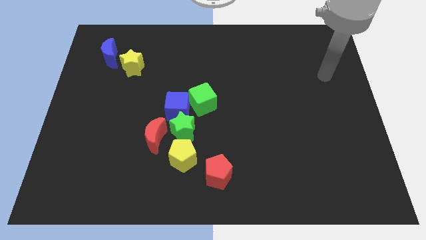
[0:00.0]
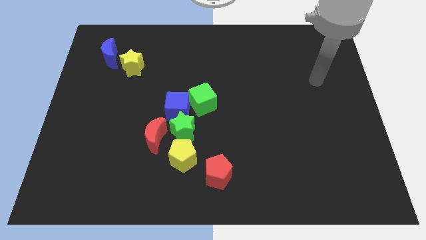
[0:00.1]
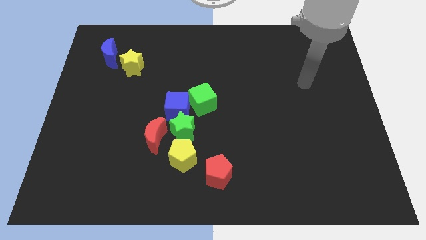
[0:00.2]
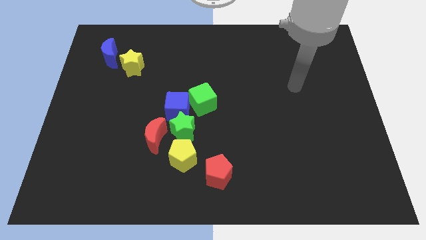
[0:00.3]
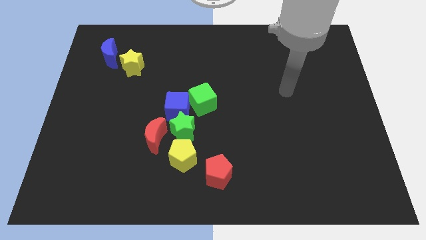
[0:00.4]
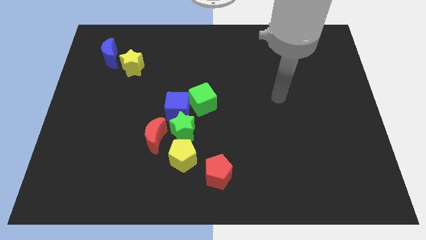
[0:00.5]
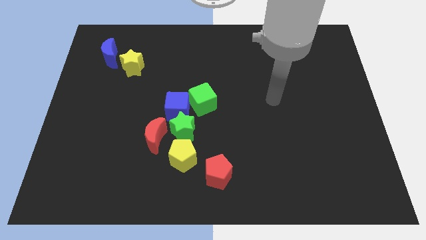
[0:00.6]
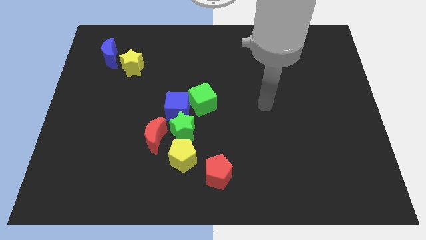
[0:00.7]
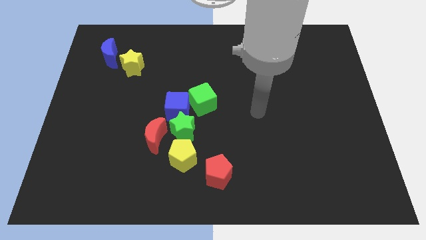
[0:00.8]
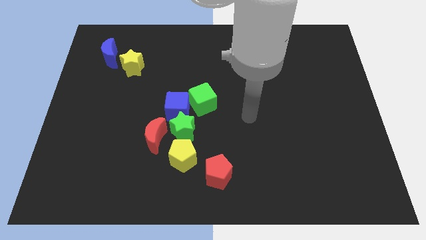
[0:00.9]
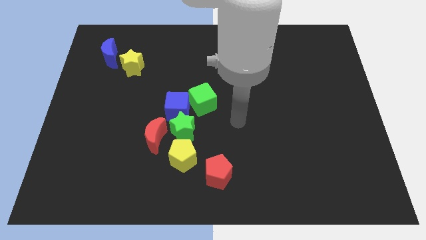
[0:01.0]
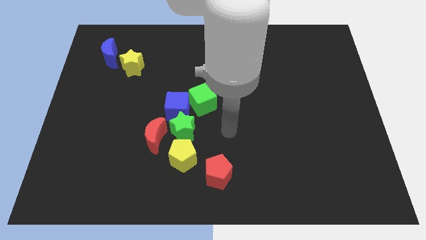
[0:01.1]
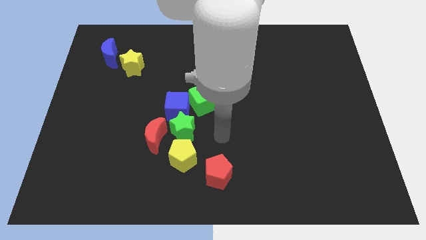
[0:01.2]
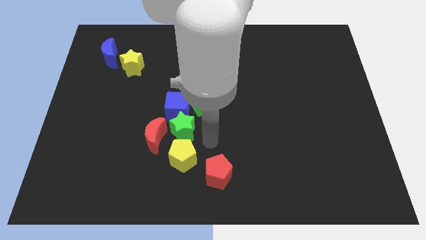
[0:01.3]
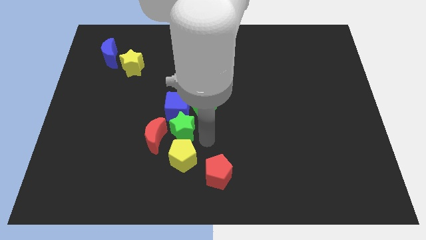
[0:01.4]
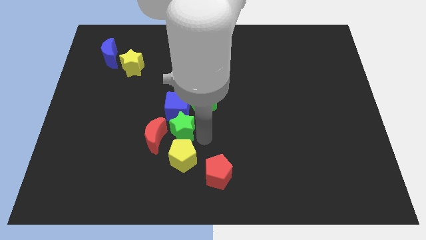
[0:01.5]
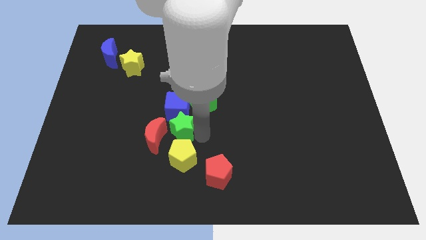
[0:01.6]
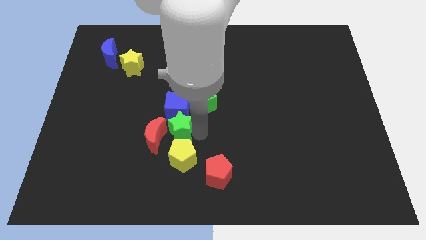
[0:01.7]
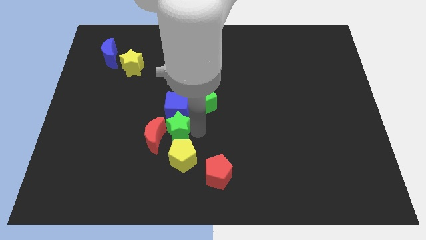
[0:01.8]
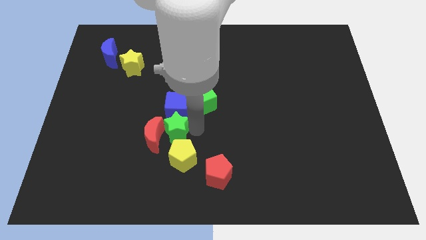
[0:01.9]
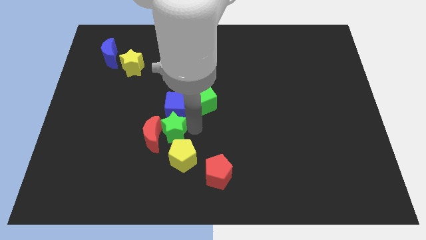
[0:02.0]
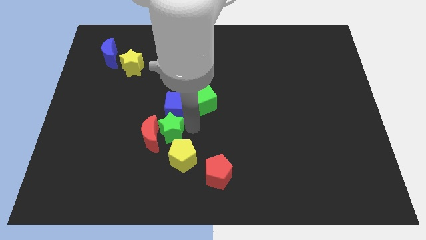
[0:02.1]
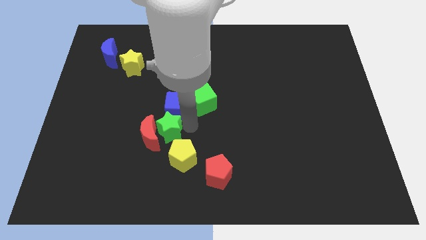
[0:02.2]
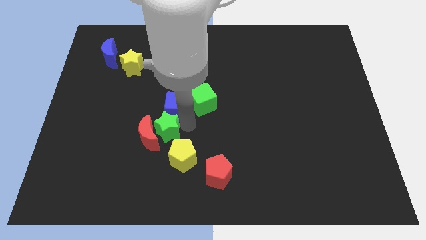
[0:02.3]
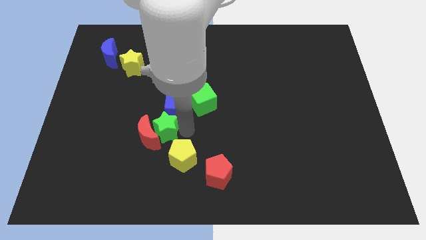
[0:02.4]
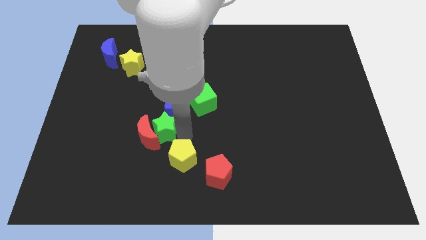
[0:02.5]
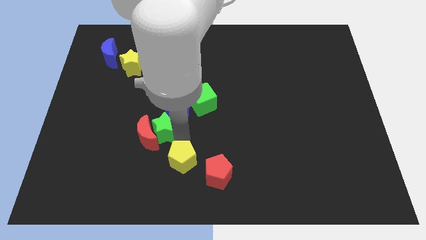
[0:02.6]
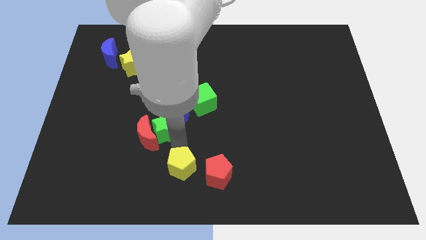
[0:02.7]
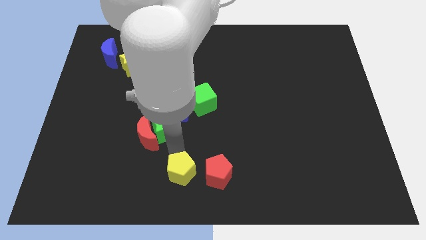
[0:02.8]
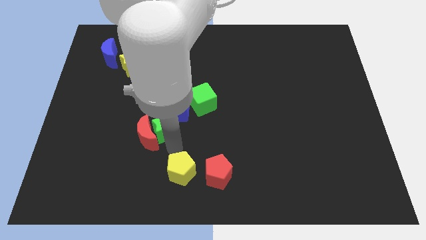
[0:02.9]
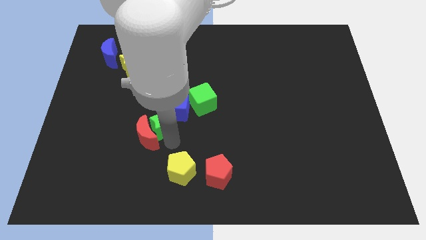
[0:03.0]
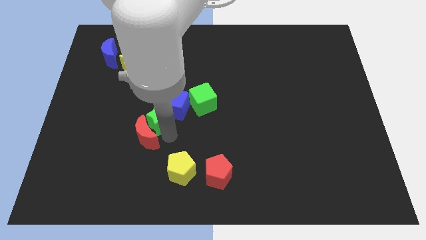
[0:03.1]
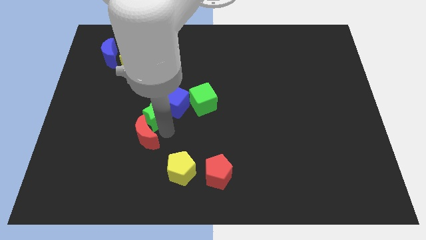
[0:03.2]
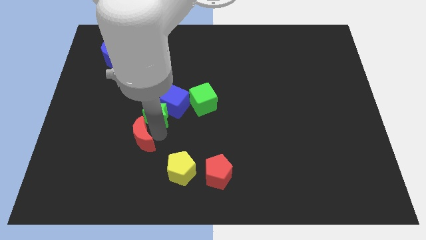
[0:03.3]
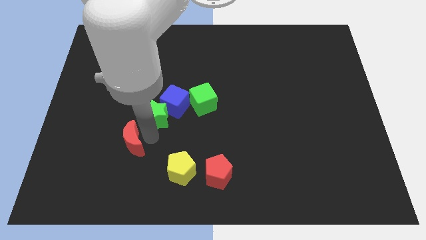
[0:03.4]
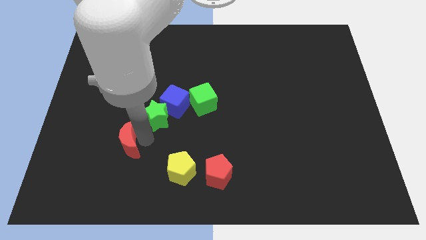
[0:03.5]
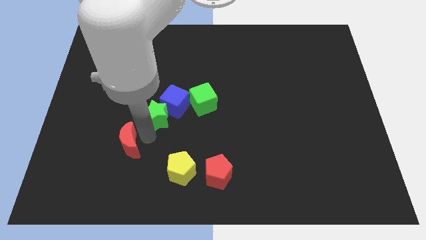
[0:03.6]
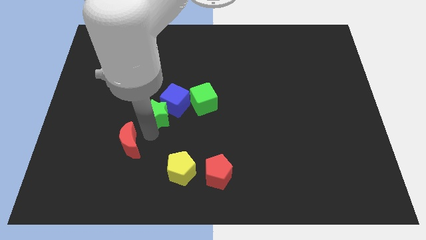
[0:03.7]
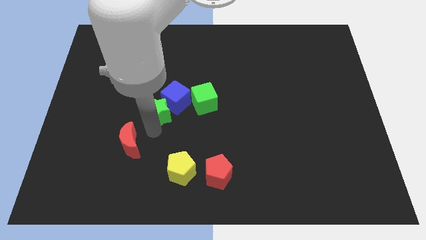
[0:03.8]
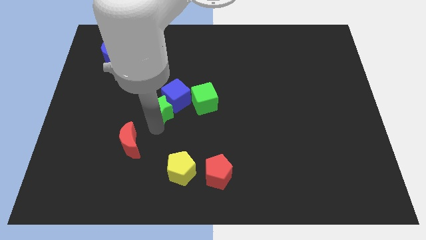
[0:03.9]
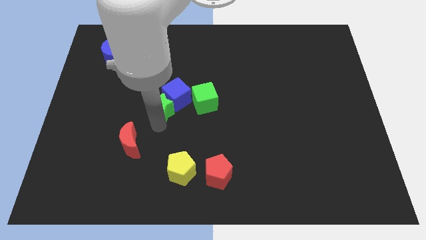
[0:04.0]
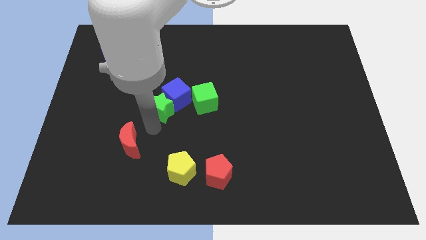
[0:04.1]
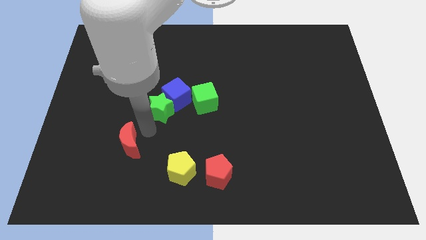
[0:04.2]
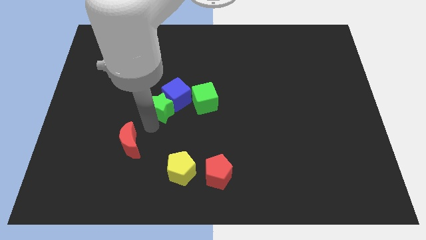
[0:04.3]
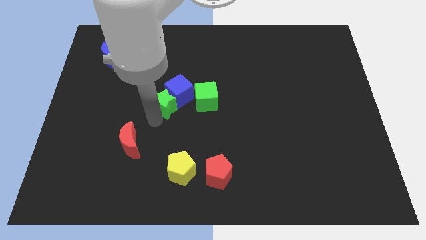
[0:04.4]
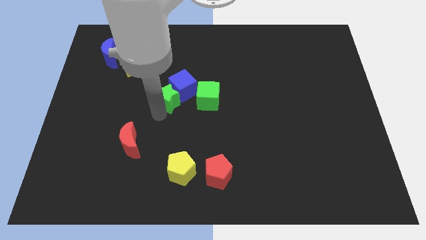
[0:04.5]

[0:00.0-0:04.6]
slide the green star up a little

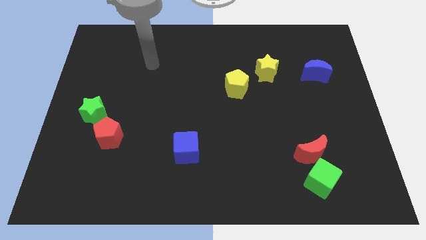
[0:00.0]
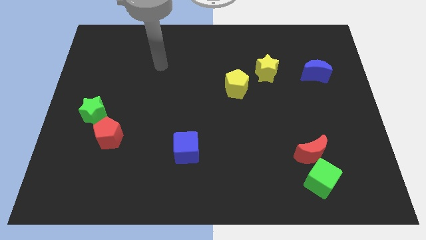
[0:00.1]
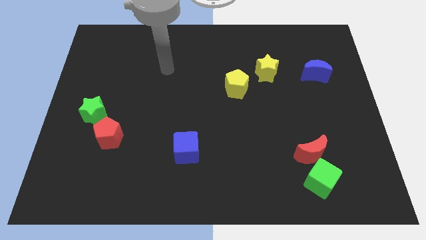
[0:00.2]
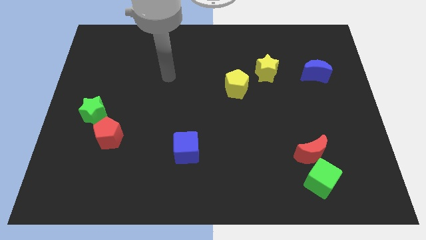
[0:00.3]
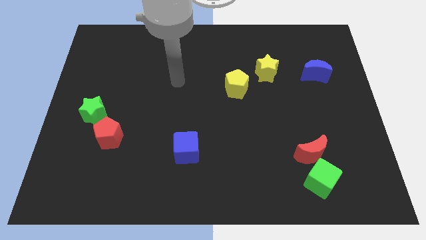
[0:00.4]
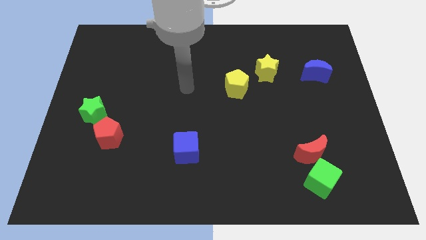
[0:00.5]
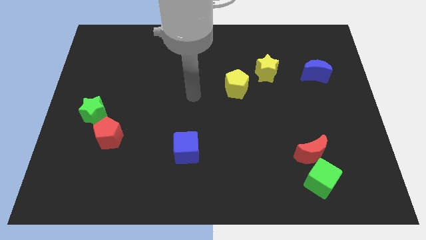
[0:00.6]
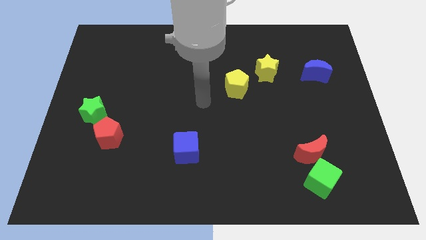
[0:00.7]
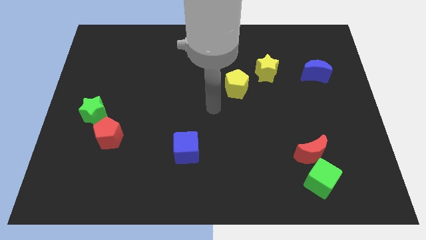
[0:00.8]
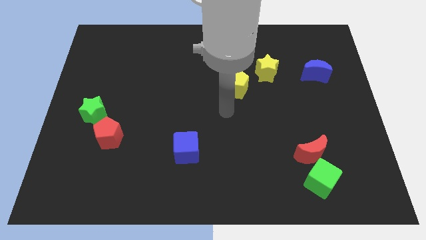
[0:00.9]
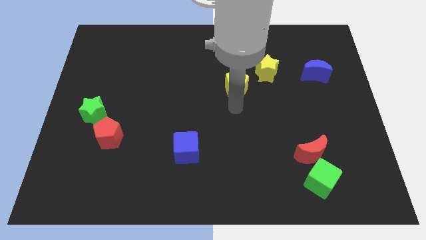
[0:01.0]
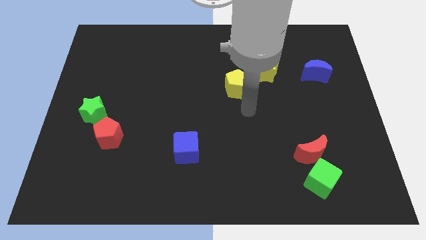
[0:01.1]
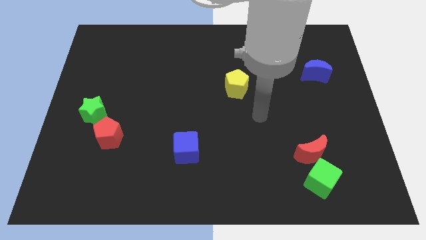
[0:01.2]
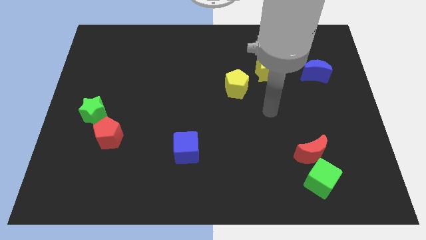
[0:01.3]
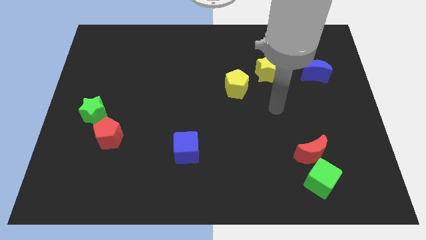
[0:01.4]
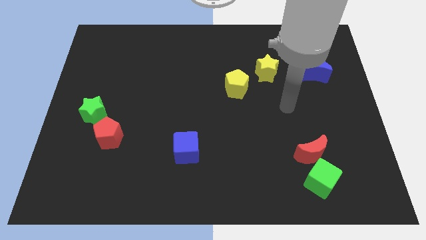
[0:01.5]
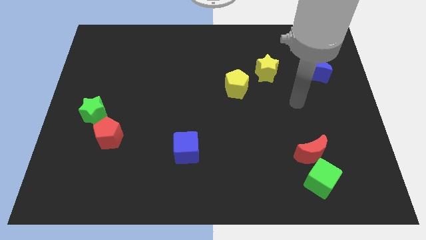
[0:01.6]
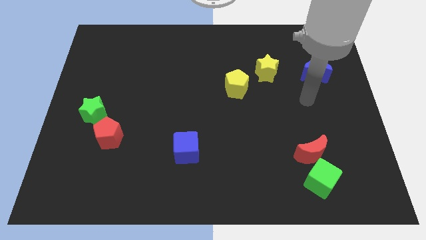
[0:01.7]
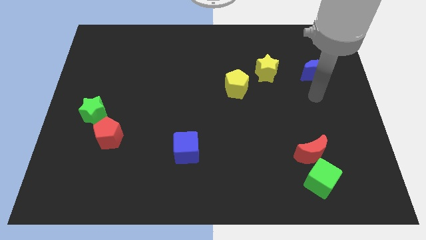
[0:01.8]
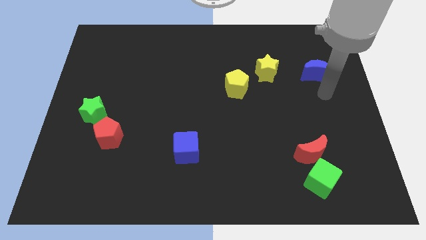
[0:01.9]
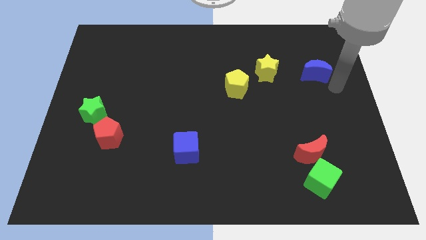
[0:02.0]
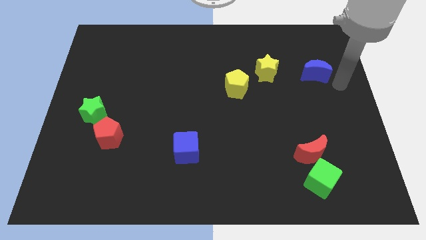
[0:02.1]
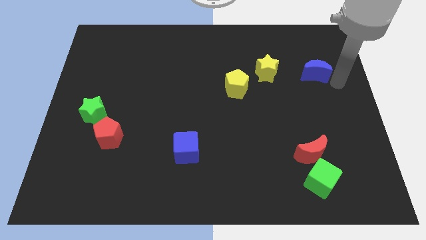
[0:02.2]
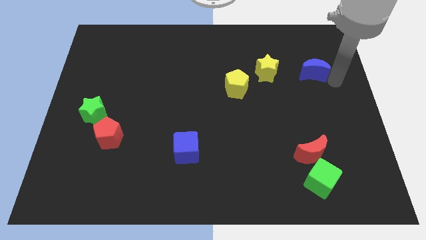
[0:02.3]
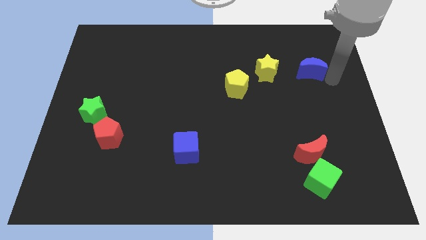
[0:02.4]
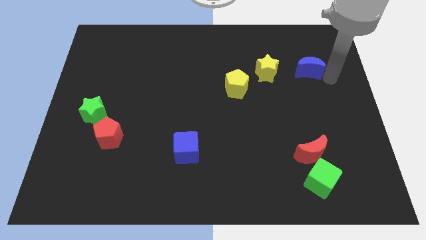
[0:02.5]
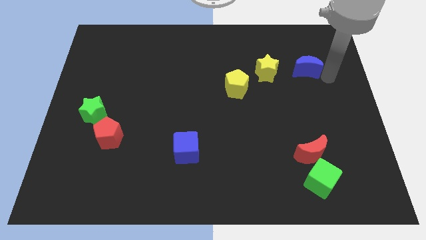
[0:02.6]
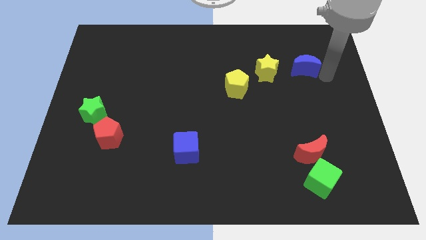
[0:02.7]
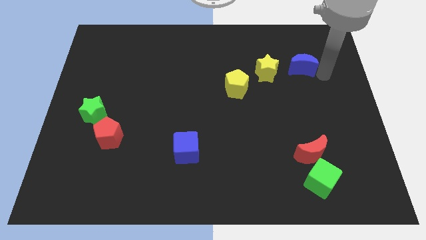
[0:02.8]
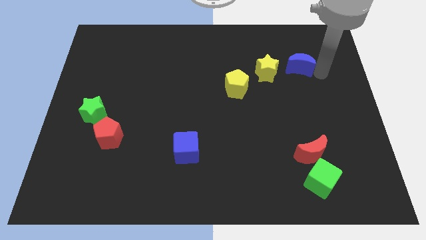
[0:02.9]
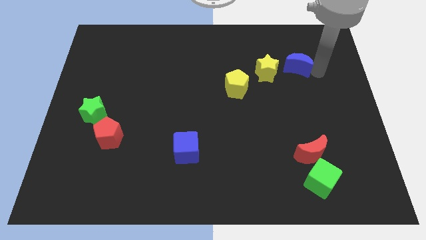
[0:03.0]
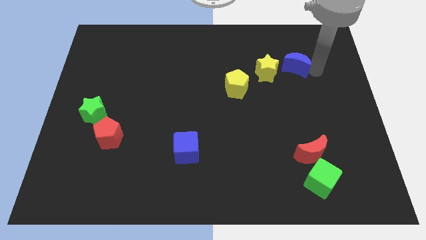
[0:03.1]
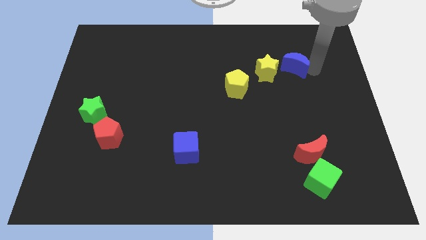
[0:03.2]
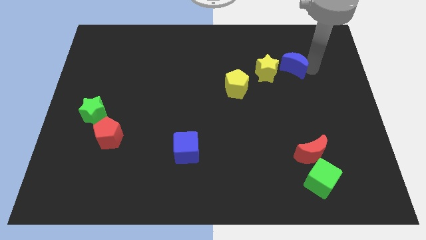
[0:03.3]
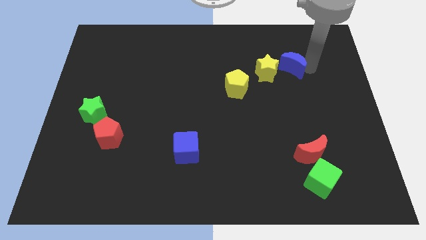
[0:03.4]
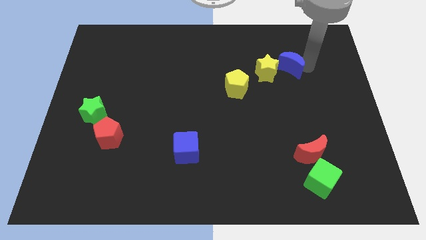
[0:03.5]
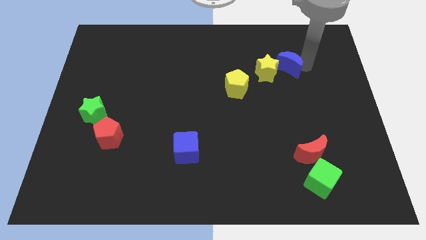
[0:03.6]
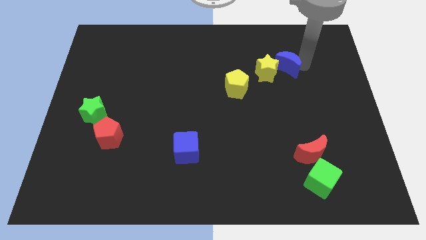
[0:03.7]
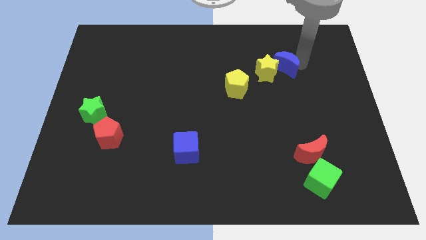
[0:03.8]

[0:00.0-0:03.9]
move the blue moon a bit to the left
